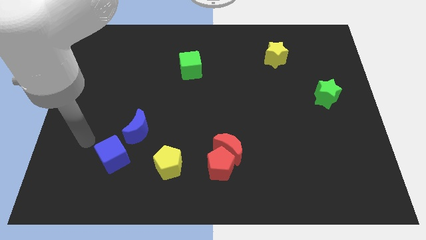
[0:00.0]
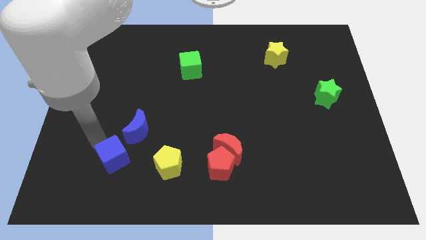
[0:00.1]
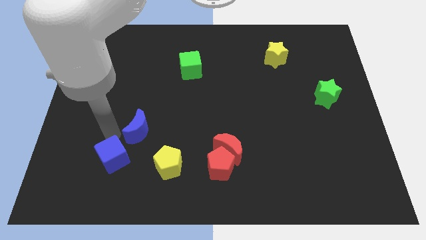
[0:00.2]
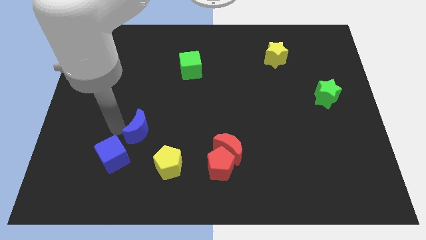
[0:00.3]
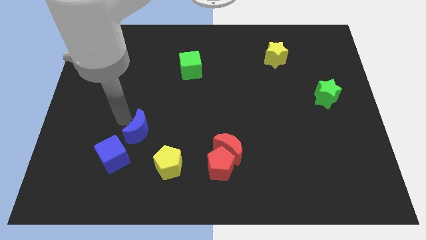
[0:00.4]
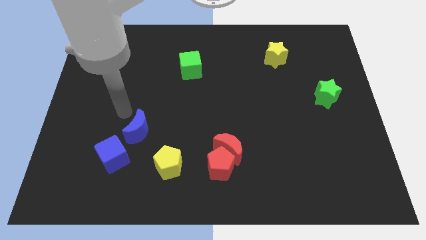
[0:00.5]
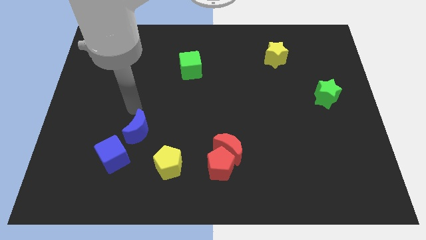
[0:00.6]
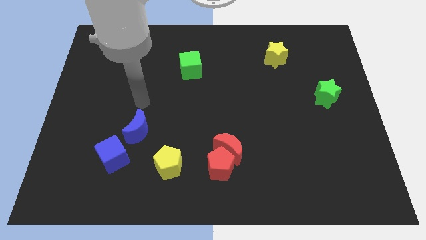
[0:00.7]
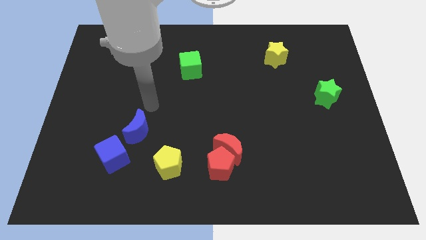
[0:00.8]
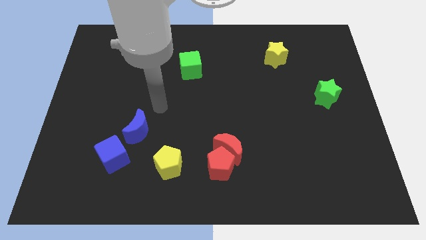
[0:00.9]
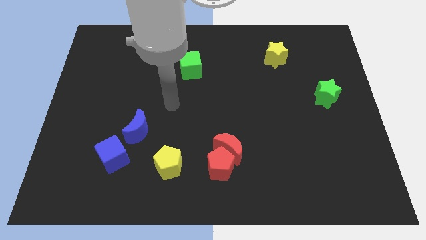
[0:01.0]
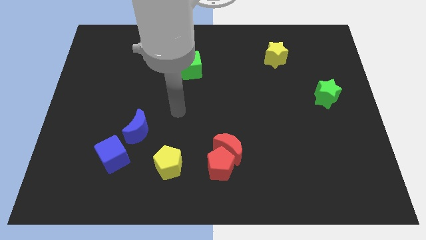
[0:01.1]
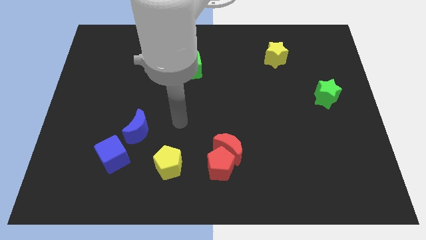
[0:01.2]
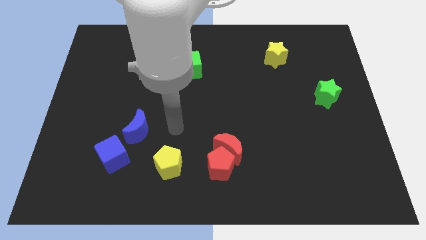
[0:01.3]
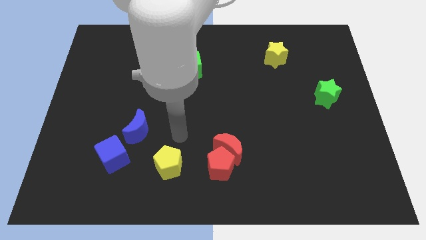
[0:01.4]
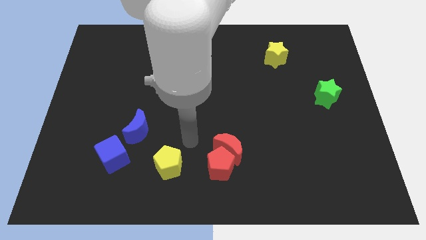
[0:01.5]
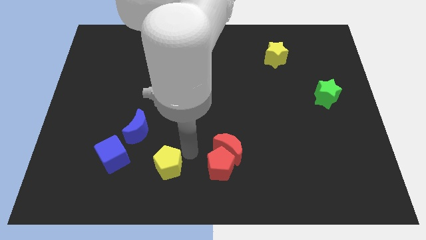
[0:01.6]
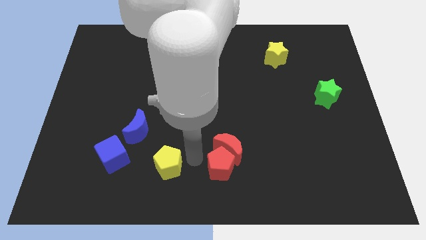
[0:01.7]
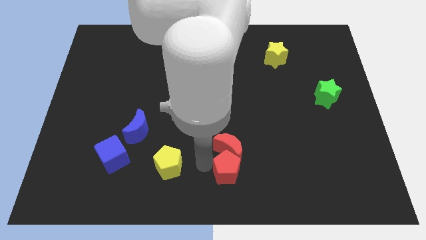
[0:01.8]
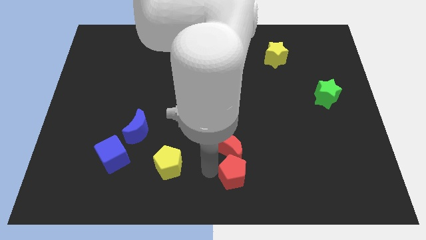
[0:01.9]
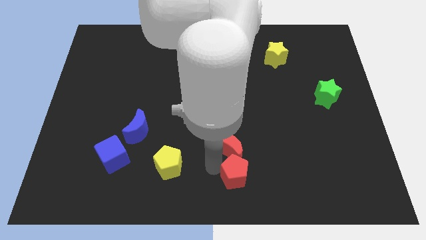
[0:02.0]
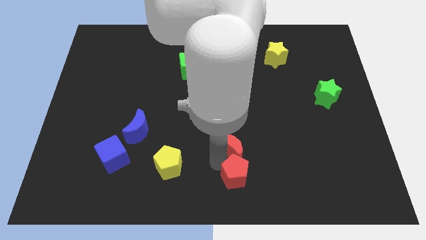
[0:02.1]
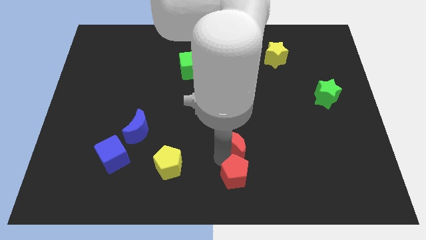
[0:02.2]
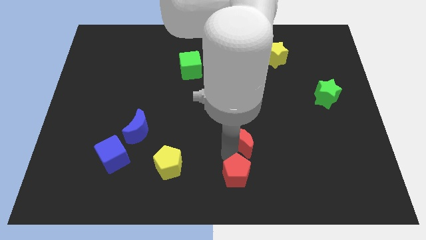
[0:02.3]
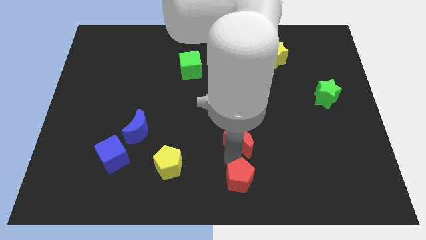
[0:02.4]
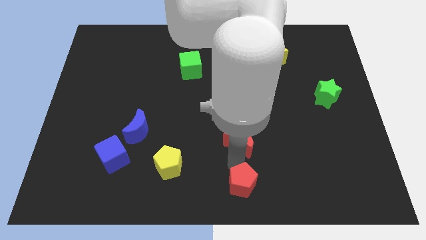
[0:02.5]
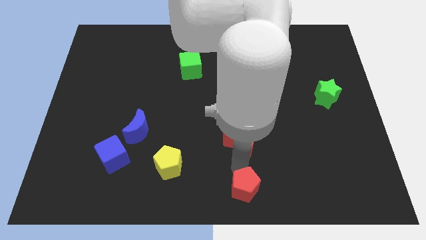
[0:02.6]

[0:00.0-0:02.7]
move the red moon away from the red pentagon

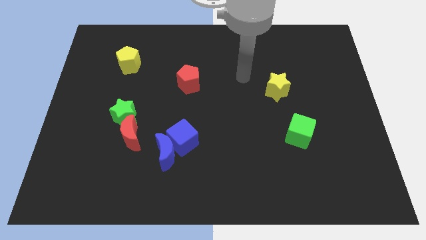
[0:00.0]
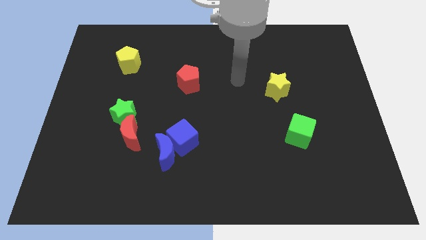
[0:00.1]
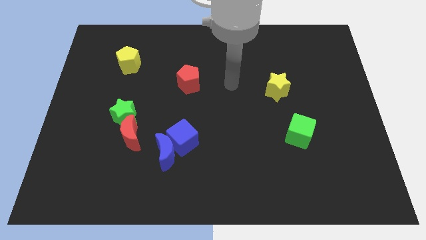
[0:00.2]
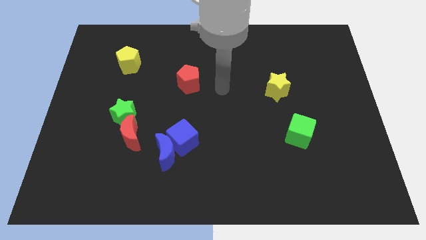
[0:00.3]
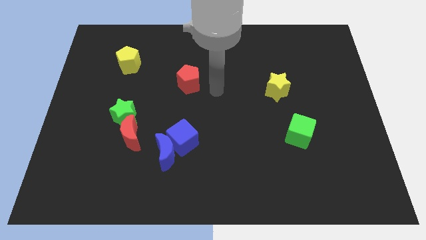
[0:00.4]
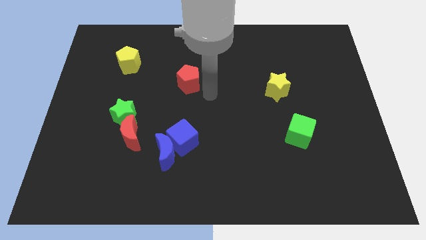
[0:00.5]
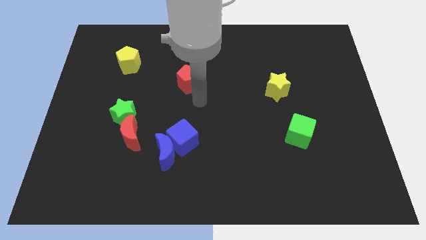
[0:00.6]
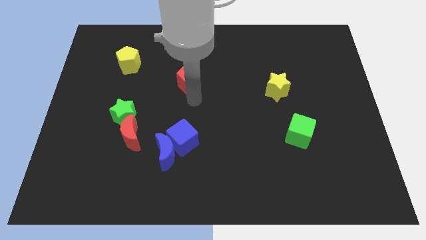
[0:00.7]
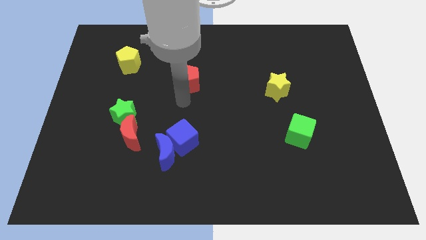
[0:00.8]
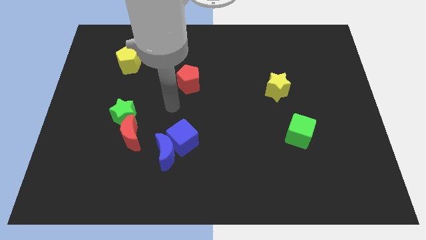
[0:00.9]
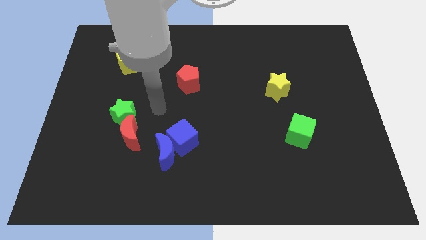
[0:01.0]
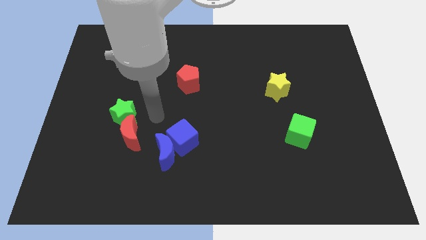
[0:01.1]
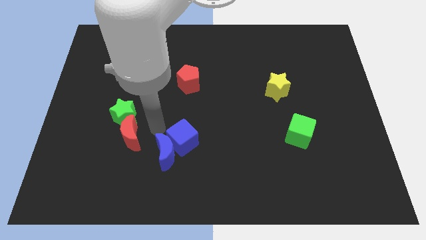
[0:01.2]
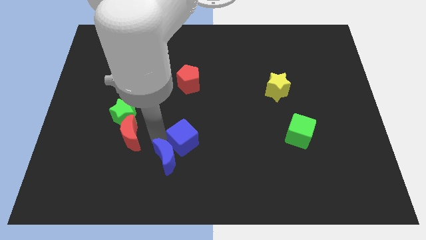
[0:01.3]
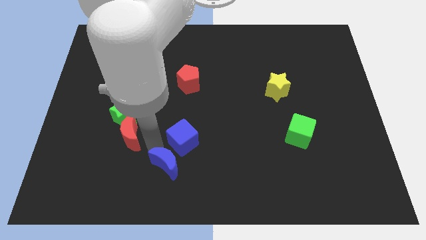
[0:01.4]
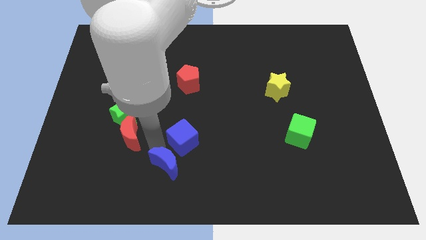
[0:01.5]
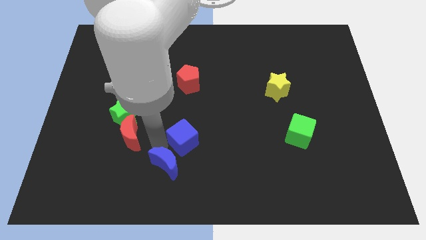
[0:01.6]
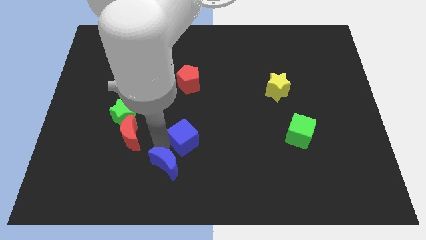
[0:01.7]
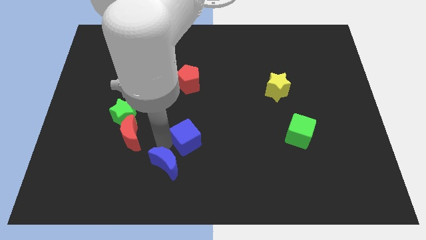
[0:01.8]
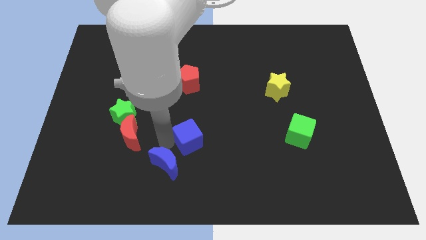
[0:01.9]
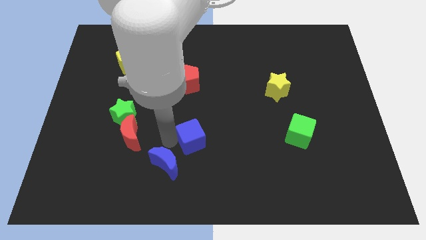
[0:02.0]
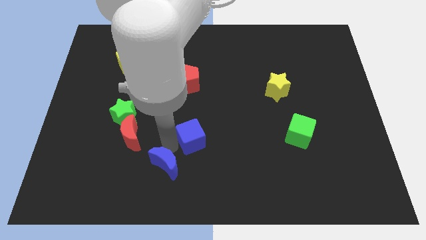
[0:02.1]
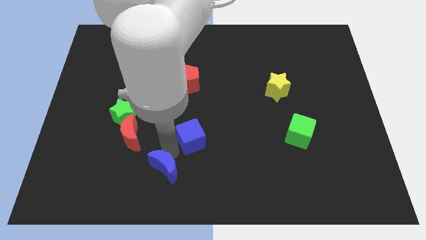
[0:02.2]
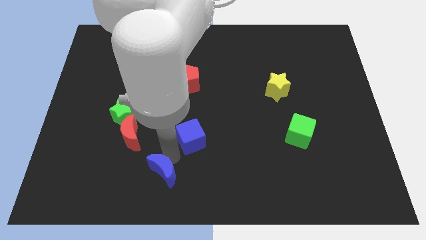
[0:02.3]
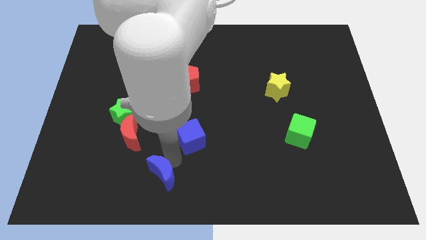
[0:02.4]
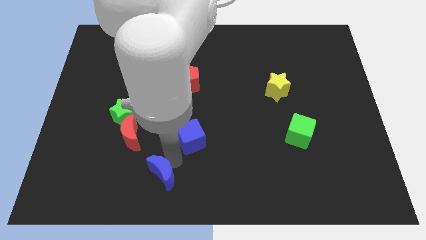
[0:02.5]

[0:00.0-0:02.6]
separate the blue cube from the blue moon

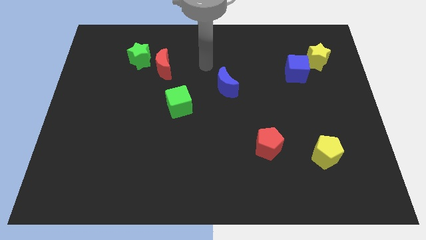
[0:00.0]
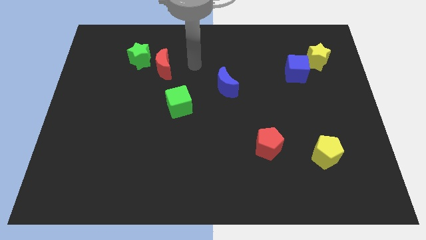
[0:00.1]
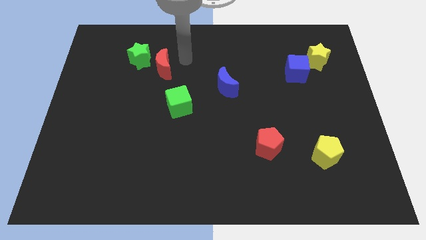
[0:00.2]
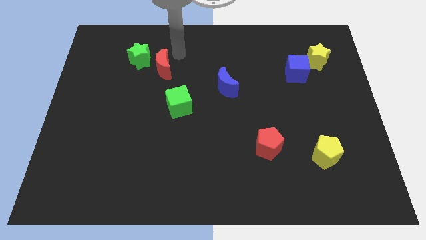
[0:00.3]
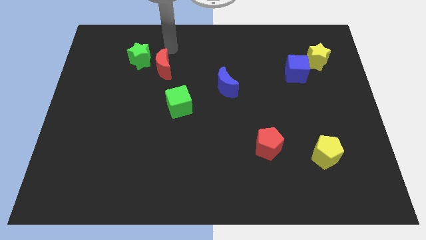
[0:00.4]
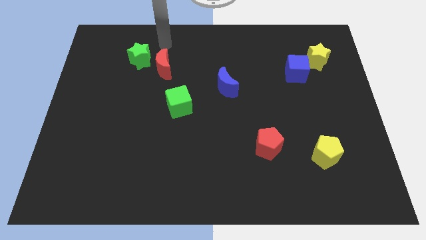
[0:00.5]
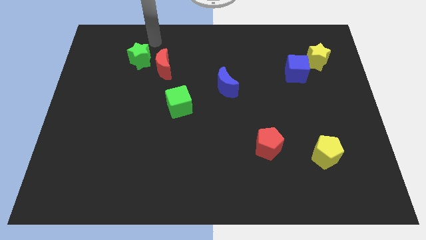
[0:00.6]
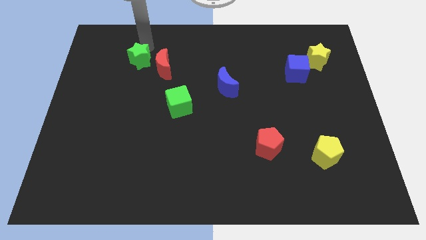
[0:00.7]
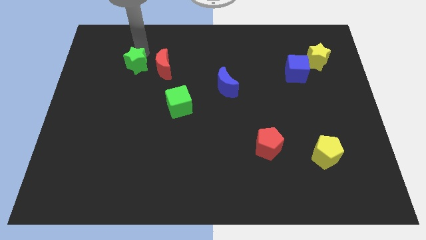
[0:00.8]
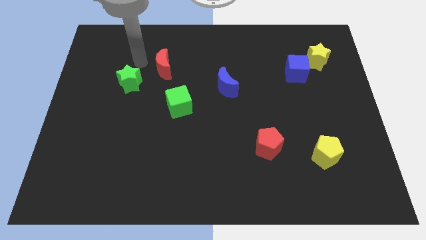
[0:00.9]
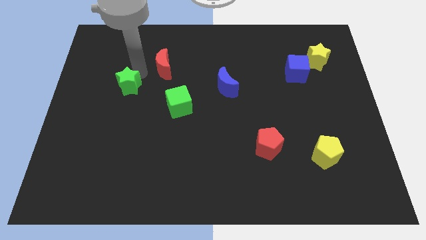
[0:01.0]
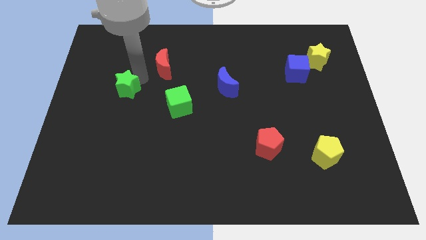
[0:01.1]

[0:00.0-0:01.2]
separate the red moon from the green star

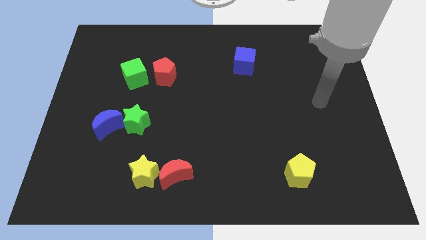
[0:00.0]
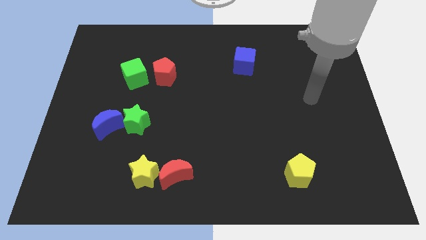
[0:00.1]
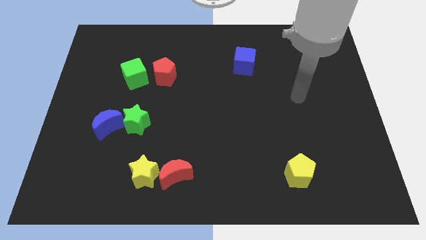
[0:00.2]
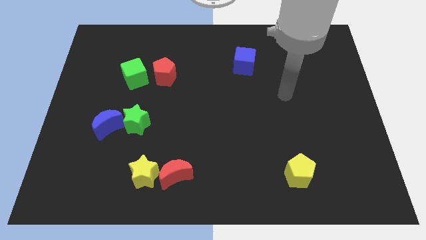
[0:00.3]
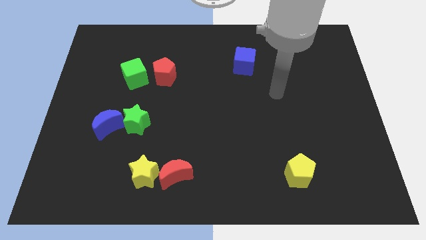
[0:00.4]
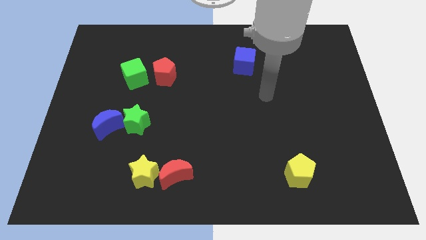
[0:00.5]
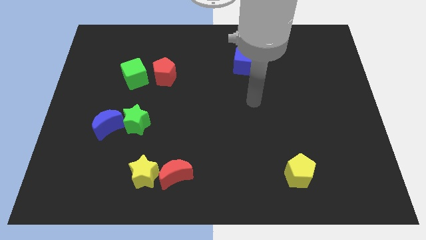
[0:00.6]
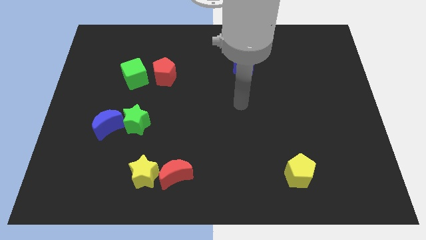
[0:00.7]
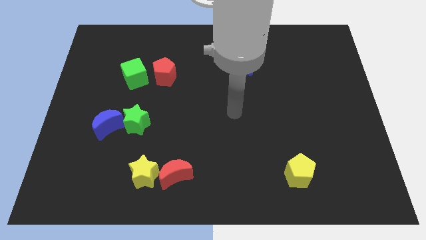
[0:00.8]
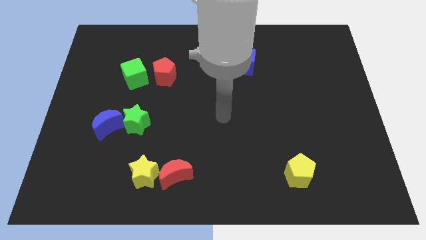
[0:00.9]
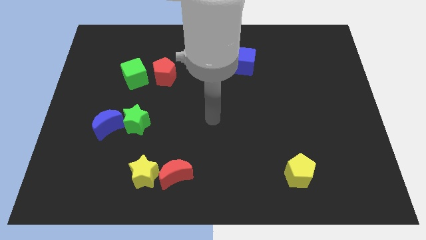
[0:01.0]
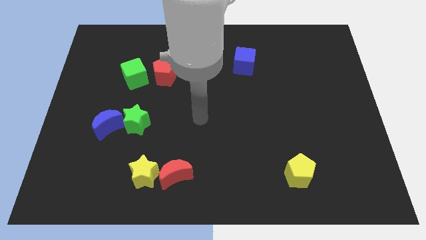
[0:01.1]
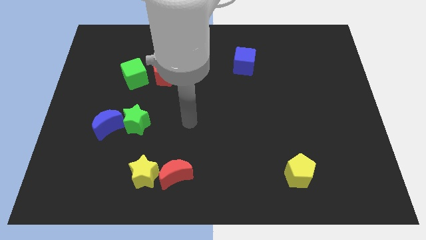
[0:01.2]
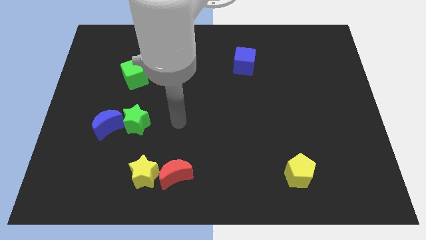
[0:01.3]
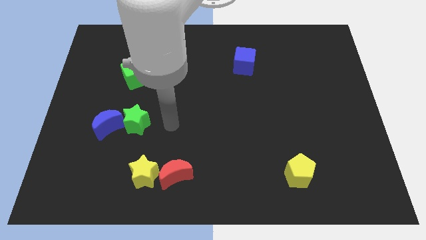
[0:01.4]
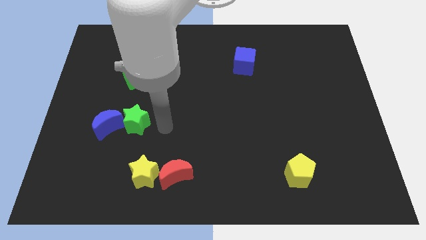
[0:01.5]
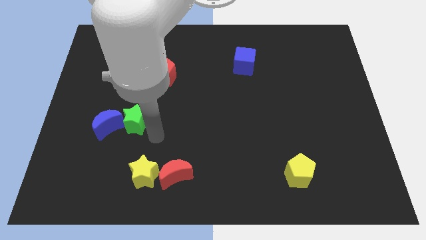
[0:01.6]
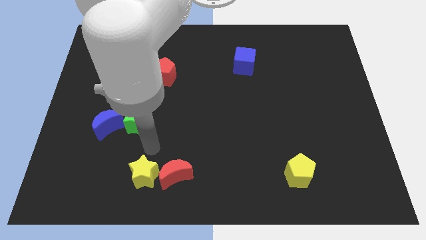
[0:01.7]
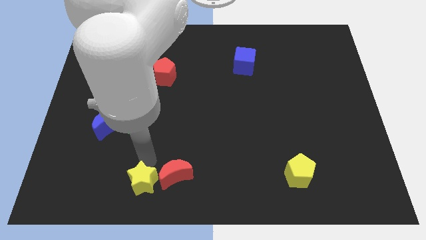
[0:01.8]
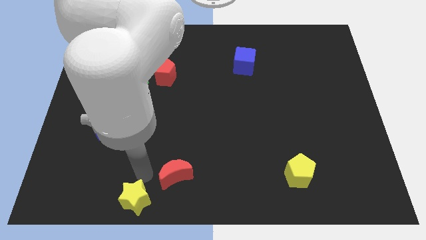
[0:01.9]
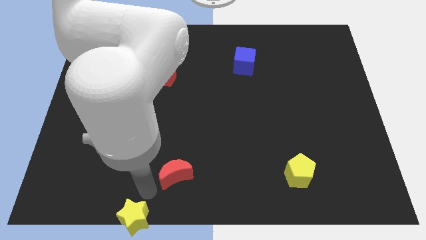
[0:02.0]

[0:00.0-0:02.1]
move the red moon away from the yellow star

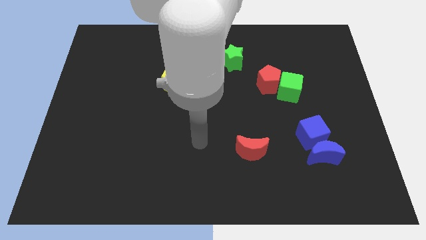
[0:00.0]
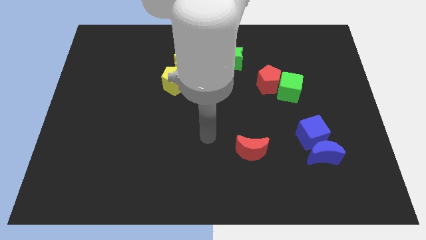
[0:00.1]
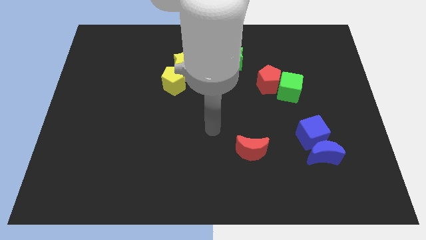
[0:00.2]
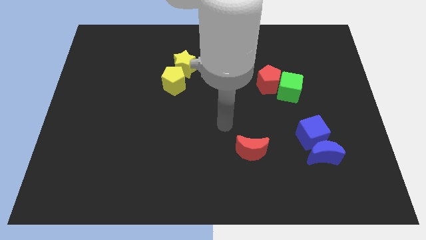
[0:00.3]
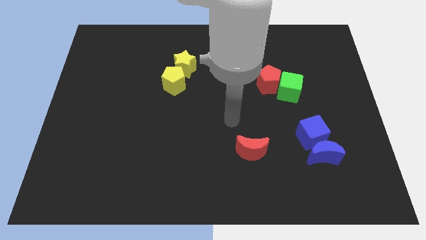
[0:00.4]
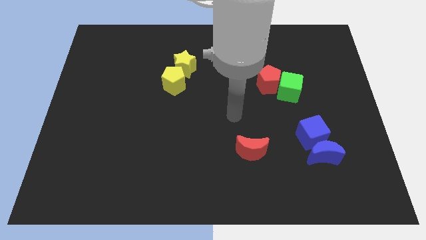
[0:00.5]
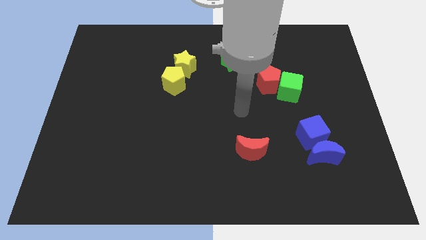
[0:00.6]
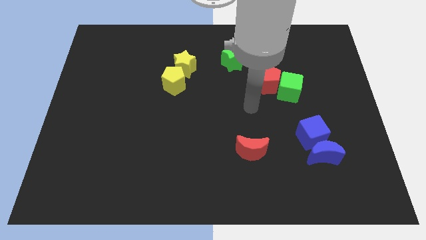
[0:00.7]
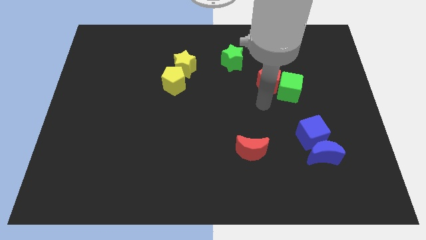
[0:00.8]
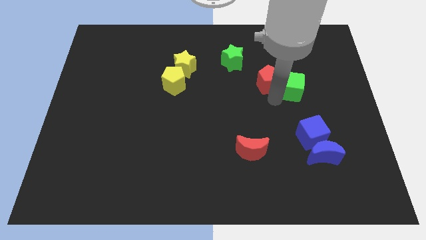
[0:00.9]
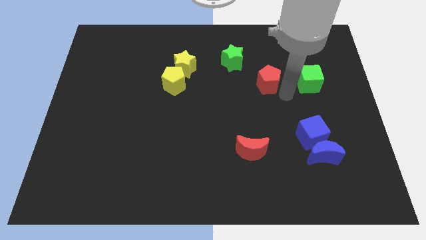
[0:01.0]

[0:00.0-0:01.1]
separate the red pentagon from the green cube
